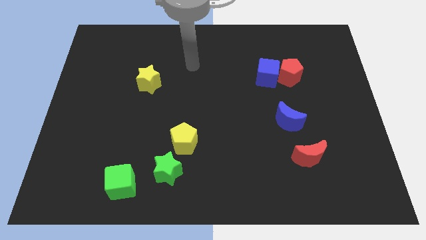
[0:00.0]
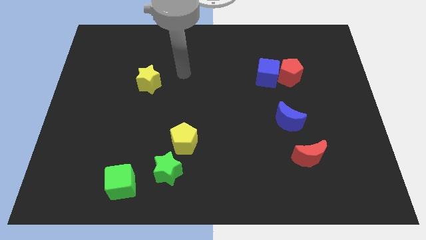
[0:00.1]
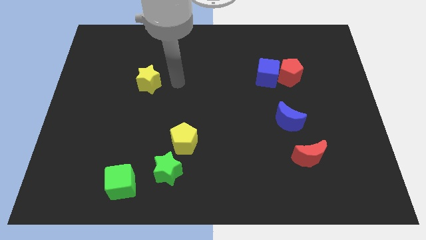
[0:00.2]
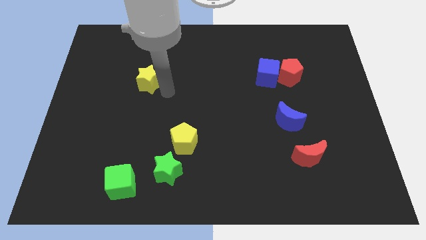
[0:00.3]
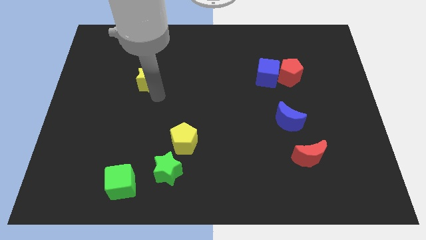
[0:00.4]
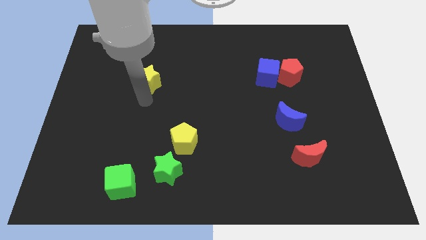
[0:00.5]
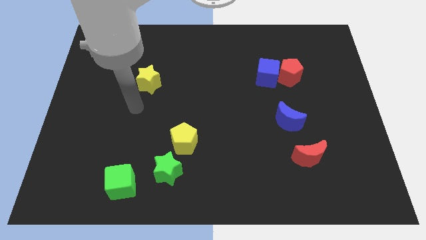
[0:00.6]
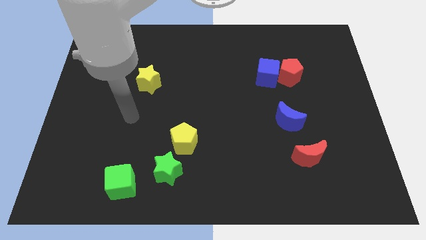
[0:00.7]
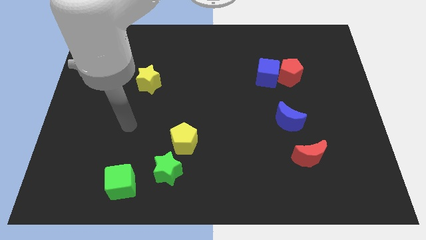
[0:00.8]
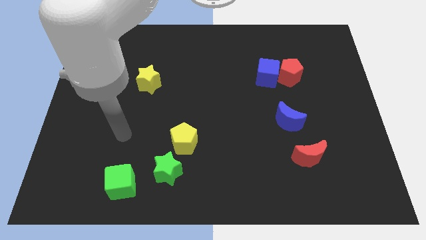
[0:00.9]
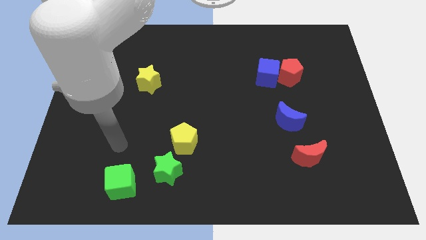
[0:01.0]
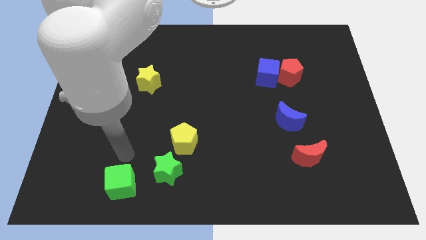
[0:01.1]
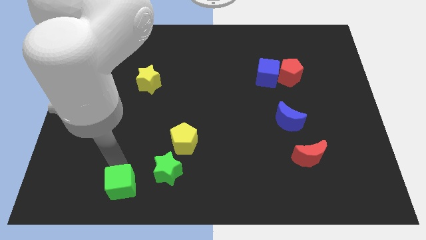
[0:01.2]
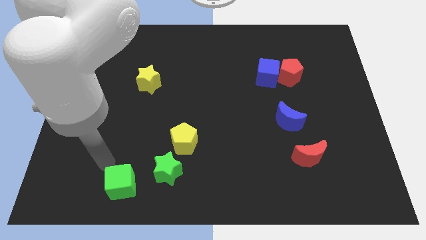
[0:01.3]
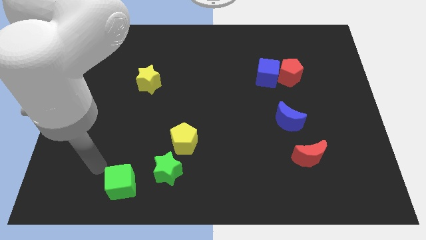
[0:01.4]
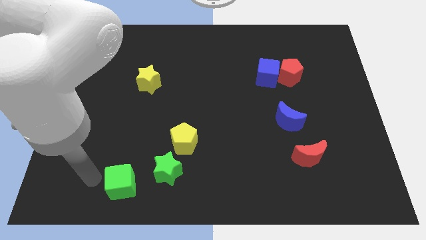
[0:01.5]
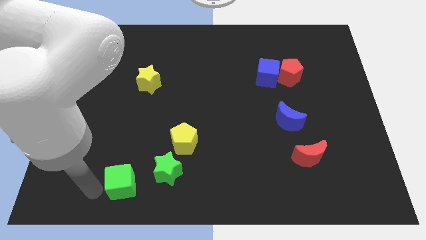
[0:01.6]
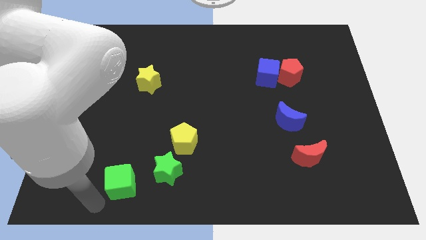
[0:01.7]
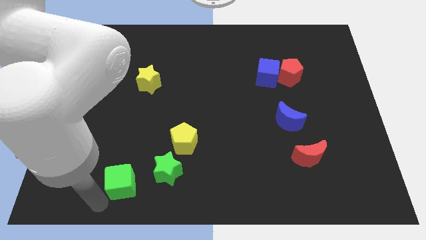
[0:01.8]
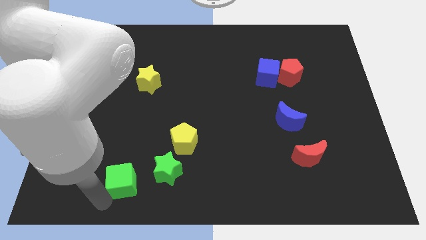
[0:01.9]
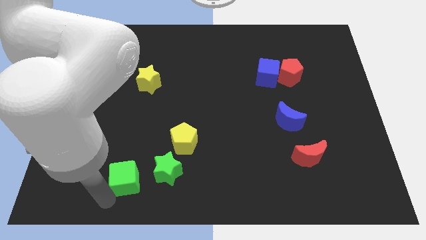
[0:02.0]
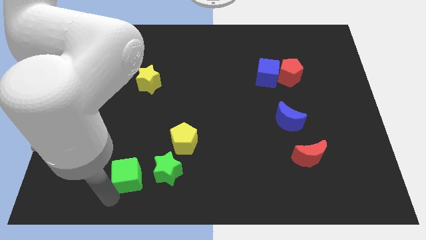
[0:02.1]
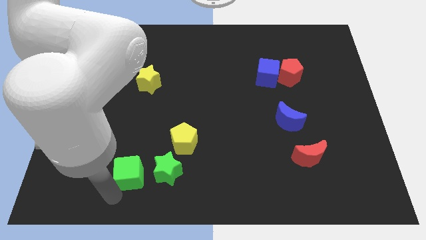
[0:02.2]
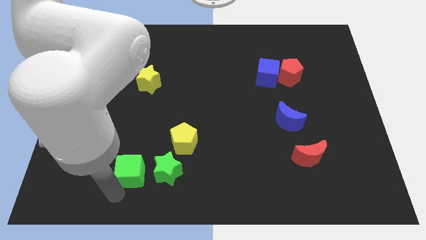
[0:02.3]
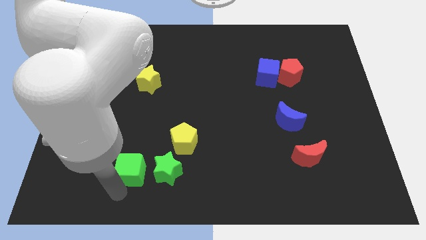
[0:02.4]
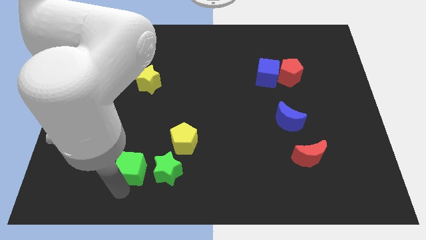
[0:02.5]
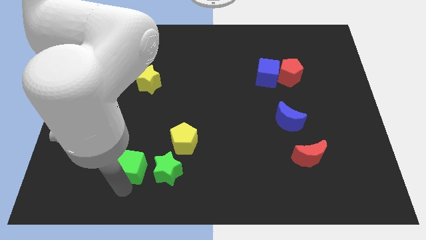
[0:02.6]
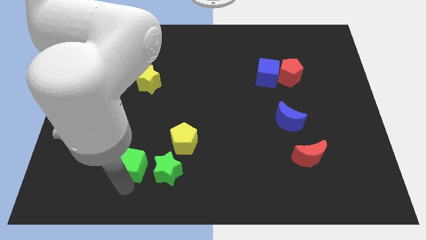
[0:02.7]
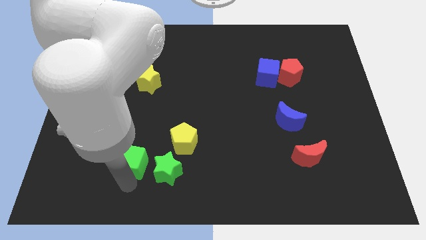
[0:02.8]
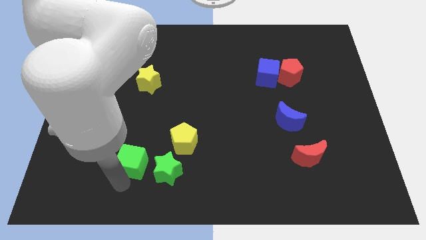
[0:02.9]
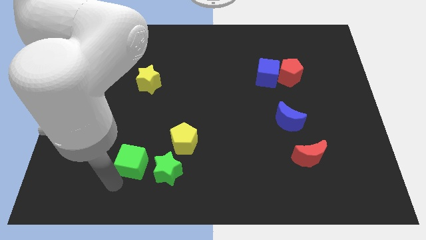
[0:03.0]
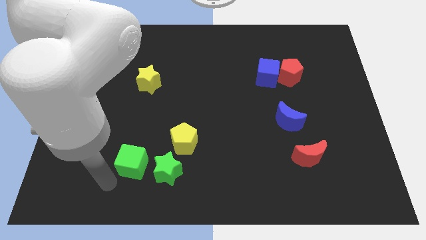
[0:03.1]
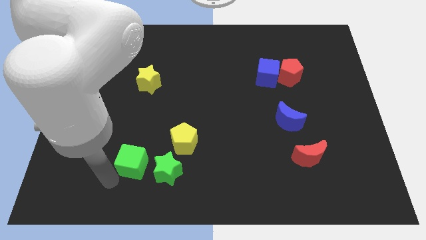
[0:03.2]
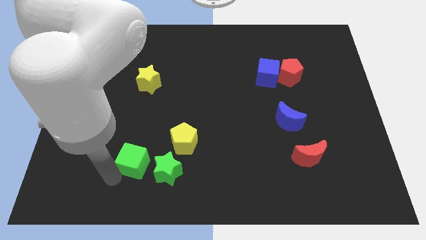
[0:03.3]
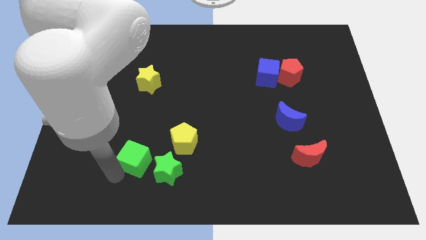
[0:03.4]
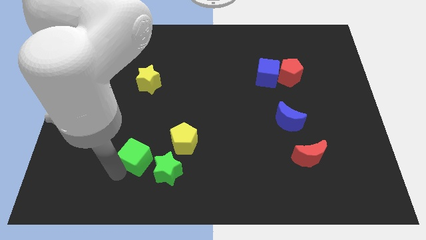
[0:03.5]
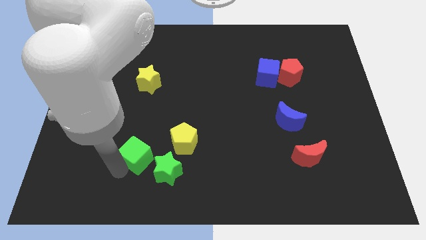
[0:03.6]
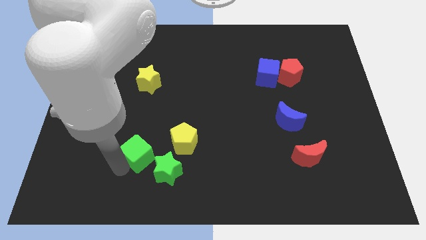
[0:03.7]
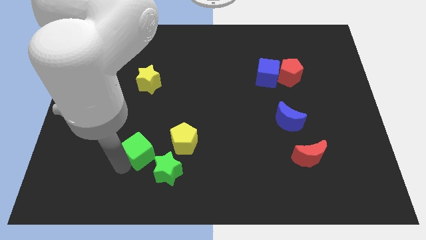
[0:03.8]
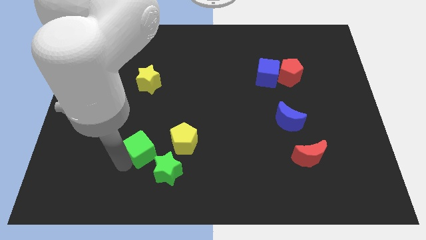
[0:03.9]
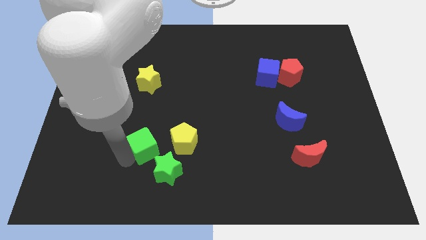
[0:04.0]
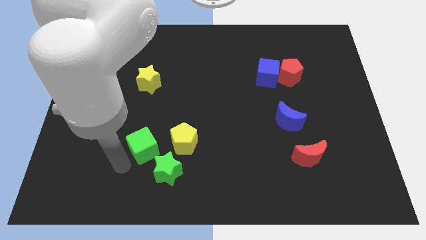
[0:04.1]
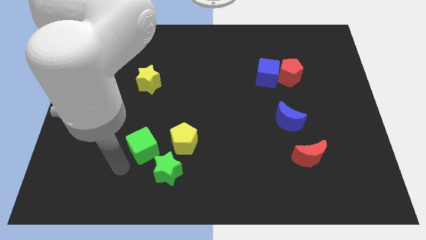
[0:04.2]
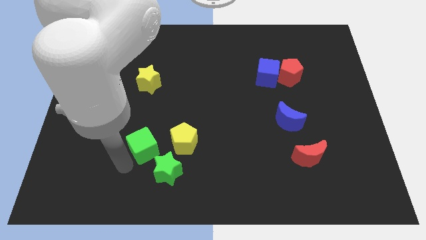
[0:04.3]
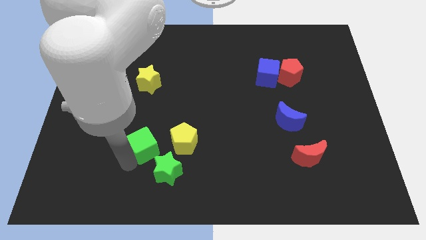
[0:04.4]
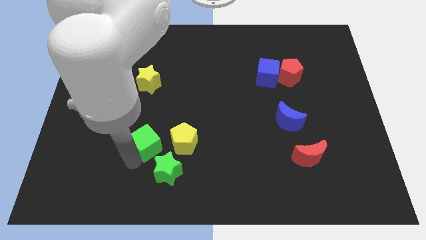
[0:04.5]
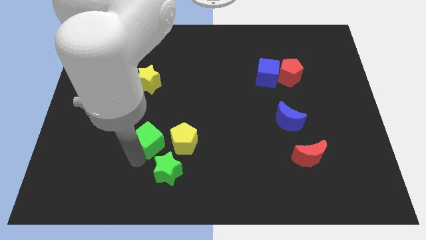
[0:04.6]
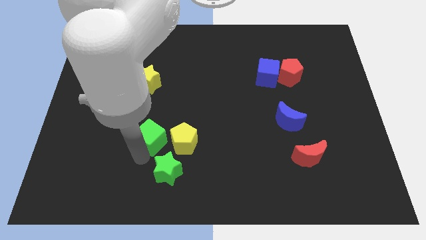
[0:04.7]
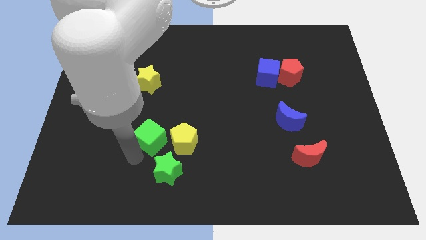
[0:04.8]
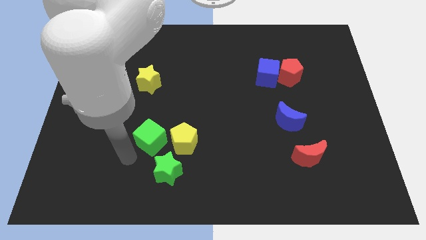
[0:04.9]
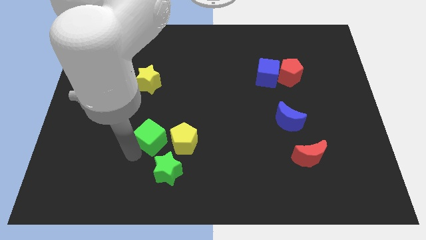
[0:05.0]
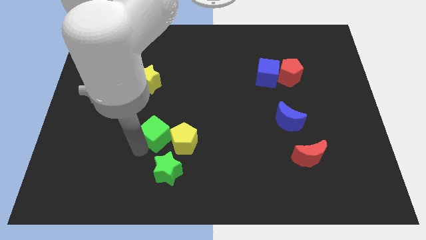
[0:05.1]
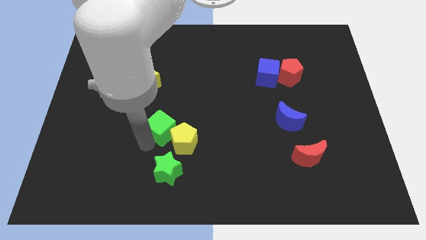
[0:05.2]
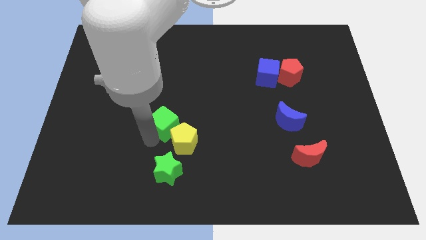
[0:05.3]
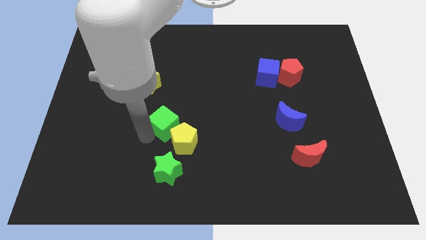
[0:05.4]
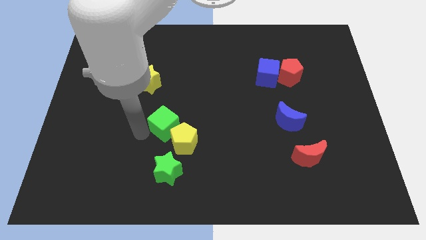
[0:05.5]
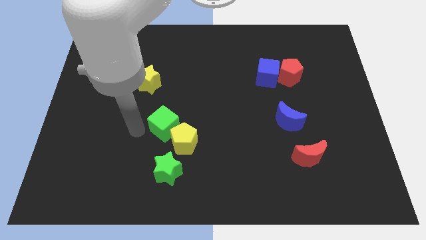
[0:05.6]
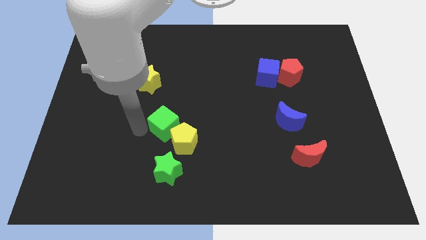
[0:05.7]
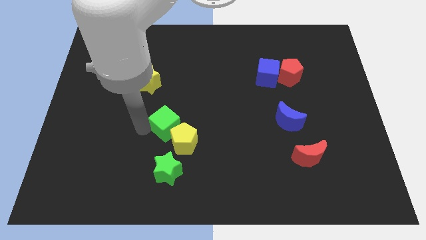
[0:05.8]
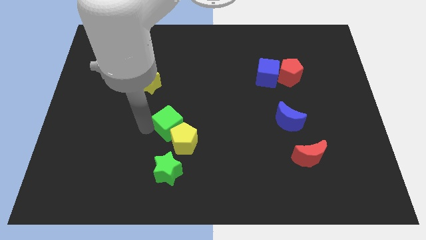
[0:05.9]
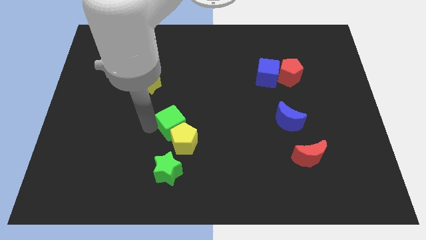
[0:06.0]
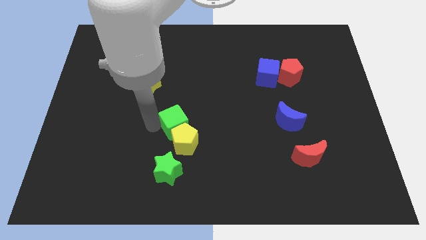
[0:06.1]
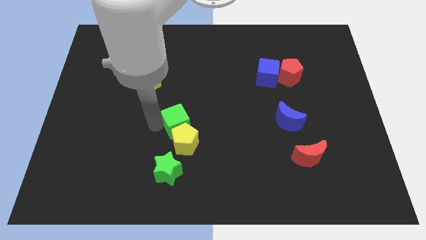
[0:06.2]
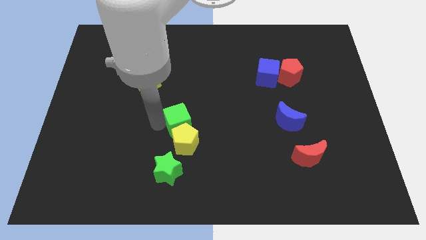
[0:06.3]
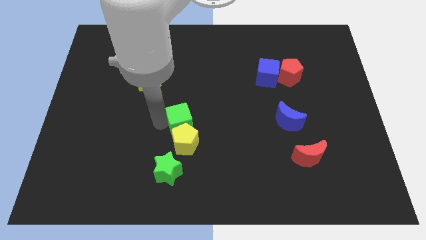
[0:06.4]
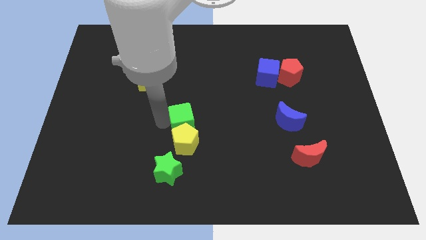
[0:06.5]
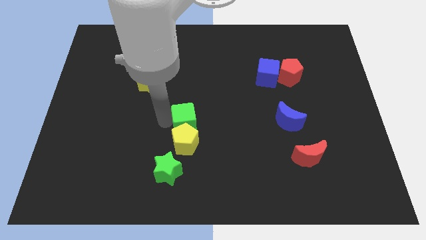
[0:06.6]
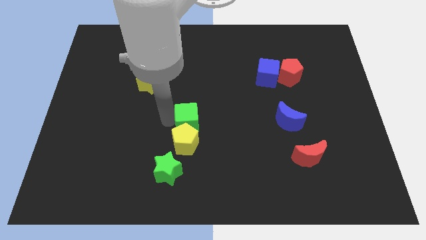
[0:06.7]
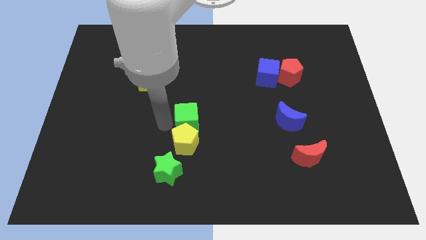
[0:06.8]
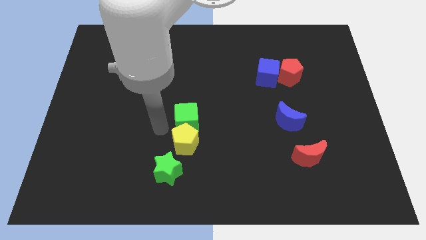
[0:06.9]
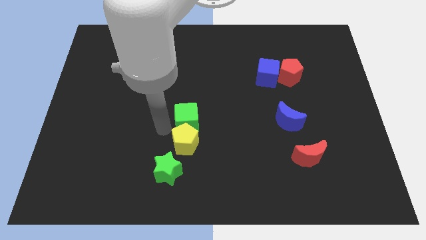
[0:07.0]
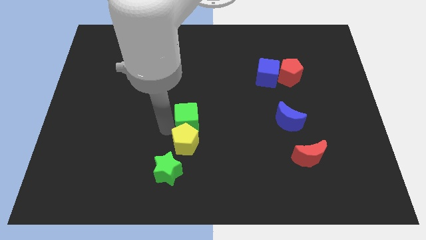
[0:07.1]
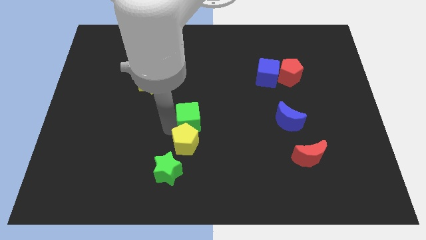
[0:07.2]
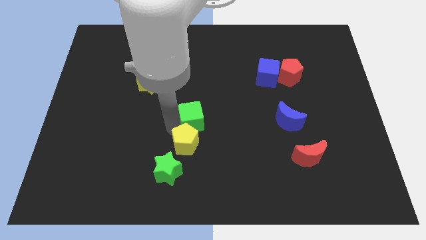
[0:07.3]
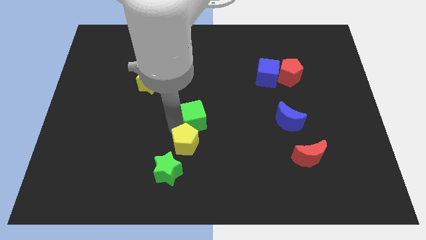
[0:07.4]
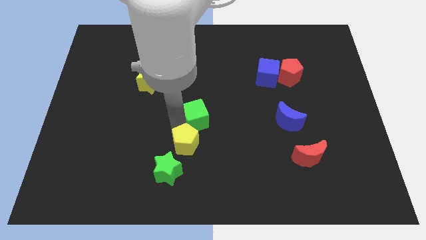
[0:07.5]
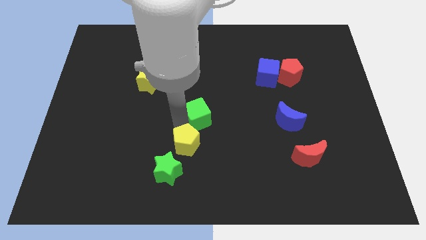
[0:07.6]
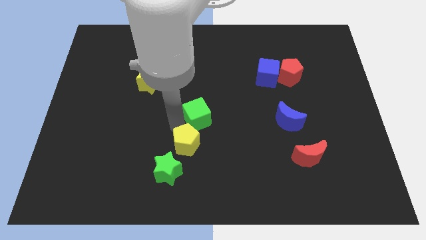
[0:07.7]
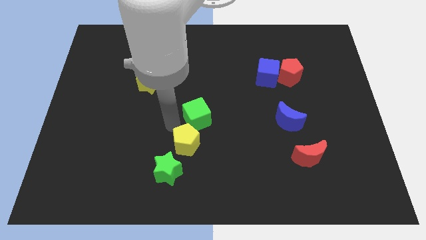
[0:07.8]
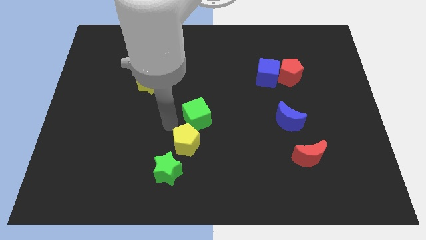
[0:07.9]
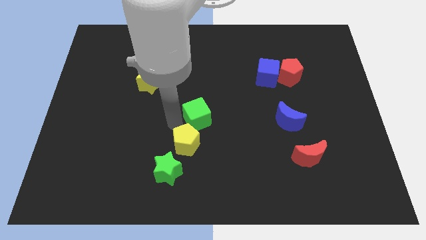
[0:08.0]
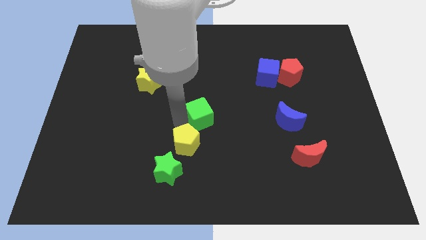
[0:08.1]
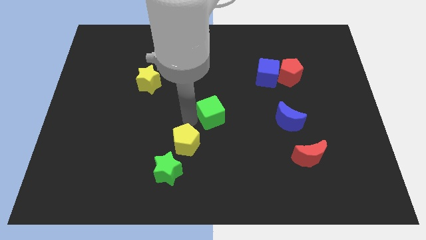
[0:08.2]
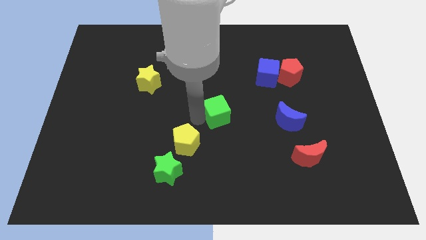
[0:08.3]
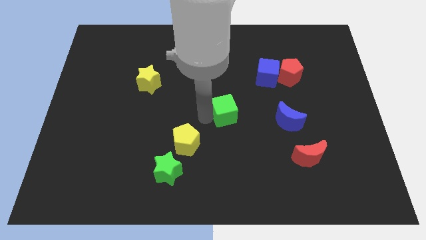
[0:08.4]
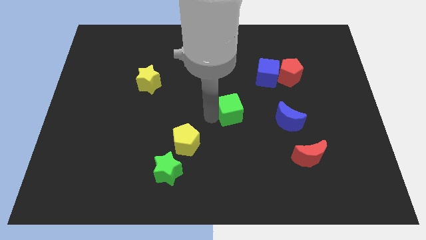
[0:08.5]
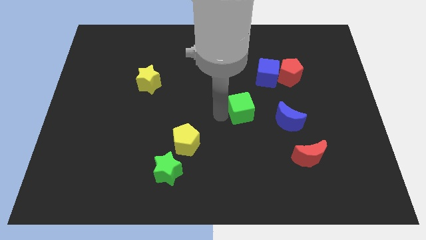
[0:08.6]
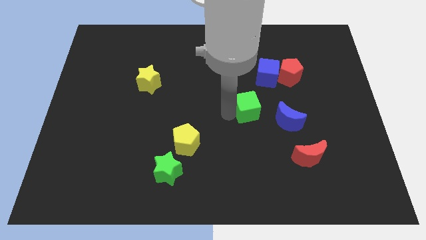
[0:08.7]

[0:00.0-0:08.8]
move the green cube diagonally up and to the left of the blue moon
